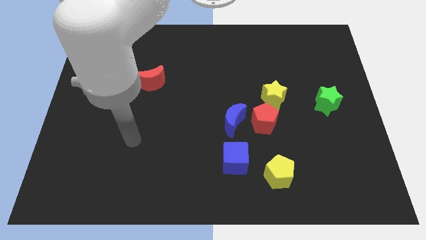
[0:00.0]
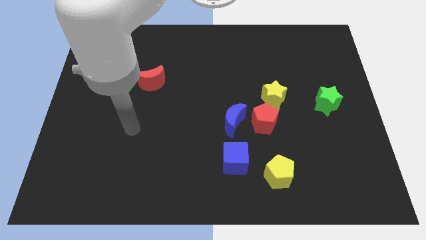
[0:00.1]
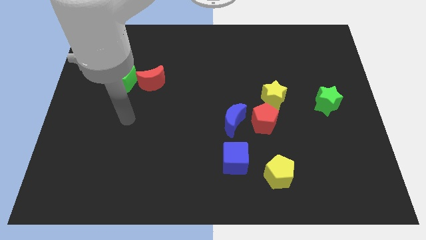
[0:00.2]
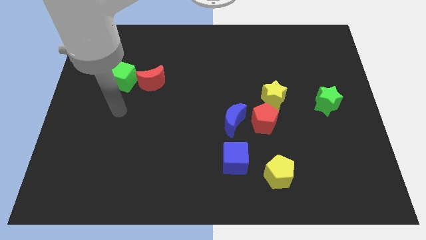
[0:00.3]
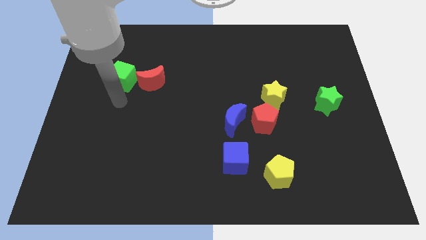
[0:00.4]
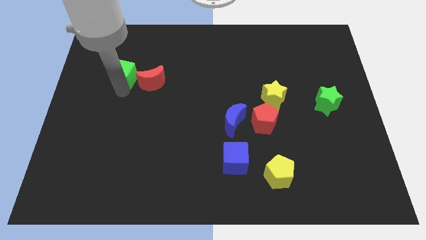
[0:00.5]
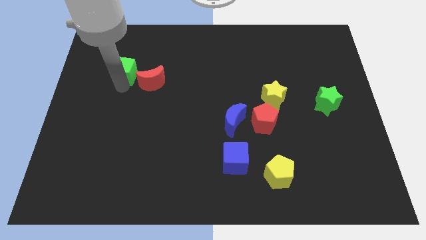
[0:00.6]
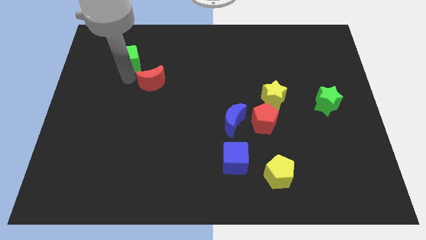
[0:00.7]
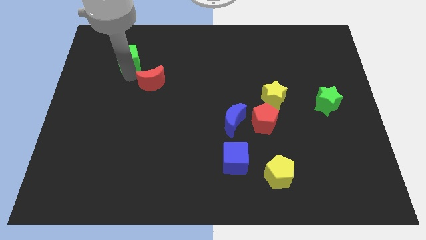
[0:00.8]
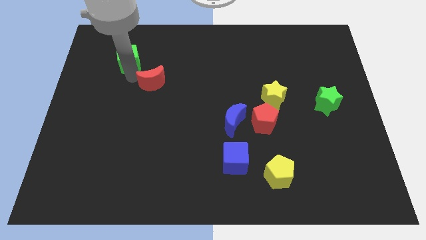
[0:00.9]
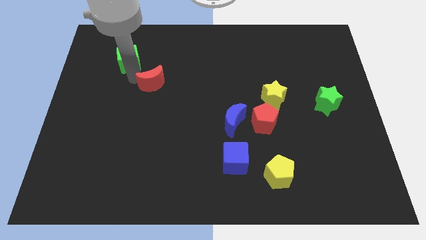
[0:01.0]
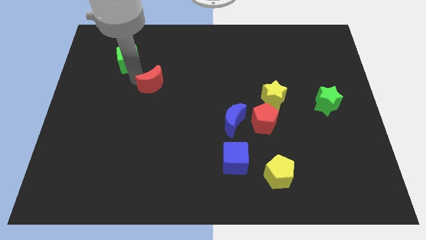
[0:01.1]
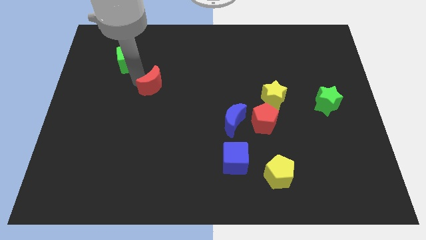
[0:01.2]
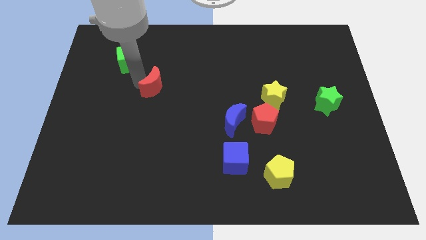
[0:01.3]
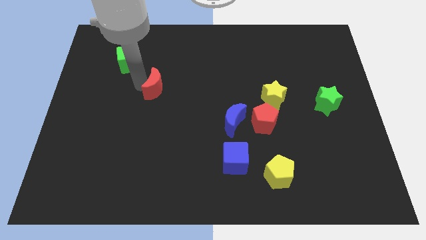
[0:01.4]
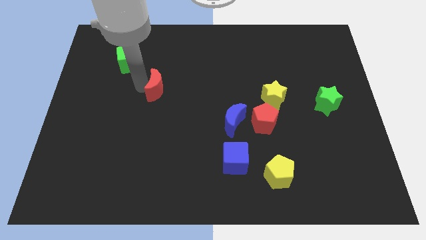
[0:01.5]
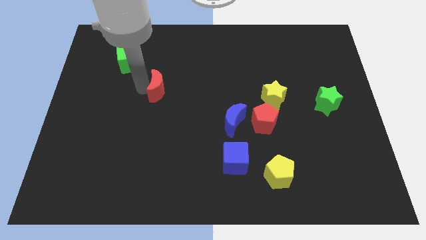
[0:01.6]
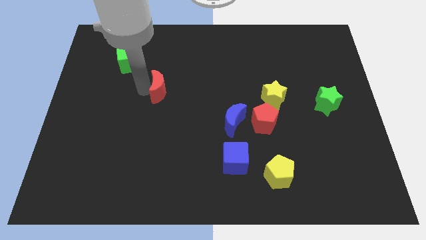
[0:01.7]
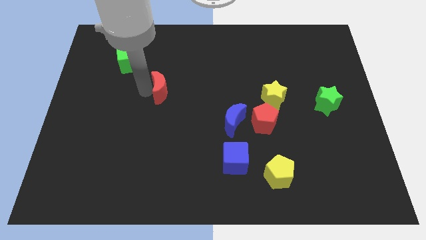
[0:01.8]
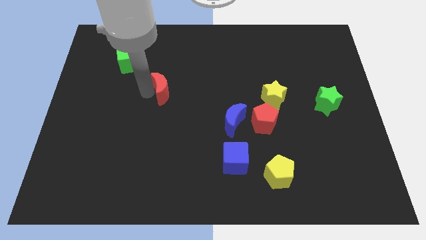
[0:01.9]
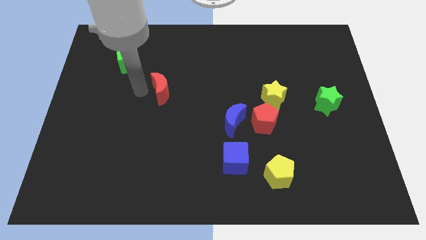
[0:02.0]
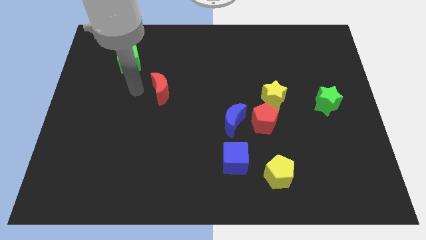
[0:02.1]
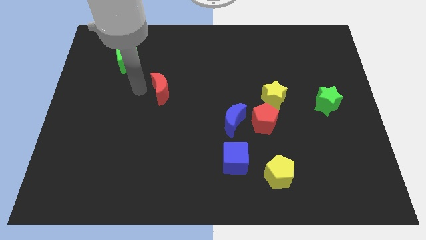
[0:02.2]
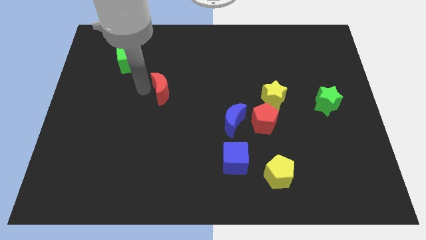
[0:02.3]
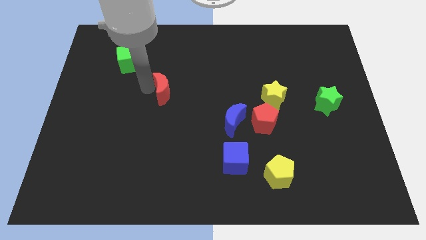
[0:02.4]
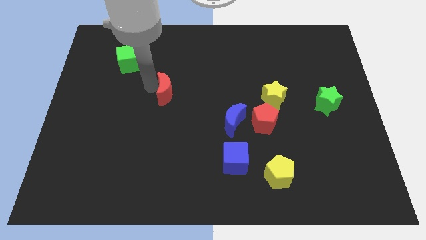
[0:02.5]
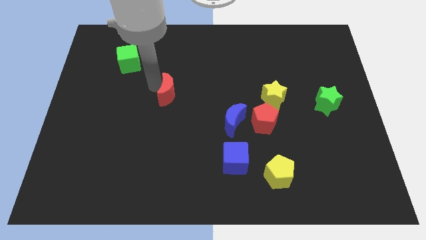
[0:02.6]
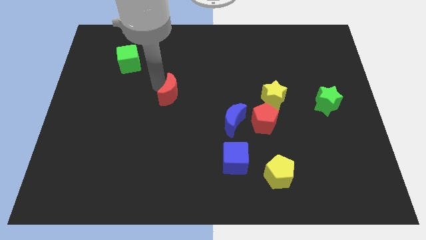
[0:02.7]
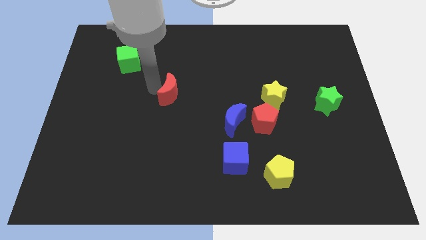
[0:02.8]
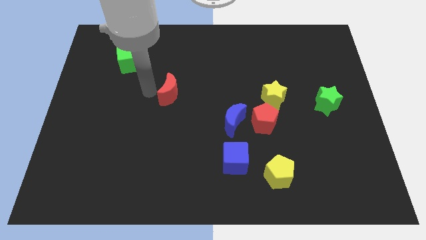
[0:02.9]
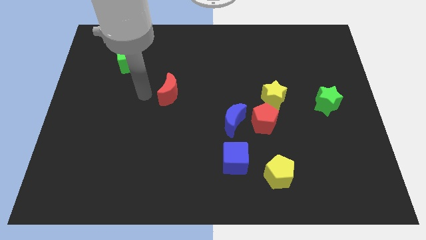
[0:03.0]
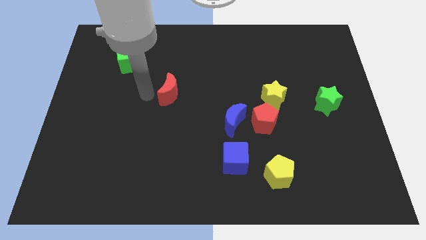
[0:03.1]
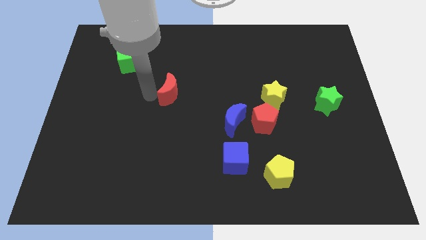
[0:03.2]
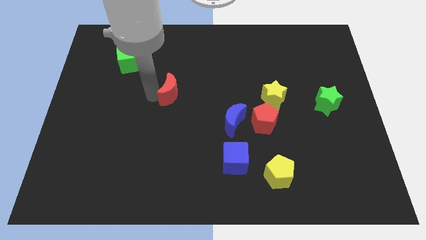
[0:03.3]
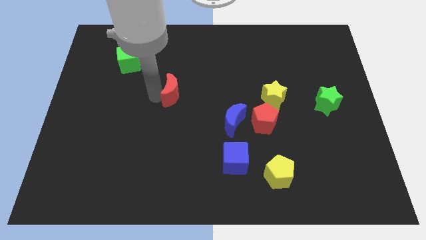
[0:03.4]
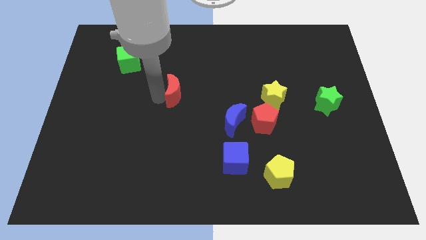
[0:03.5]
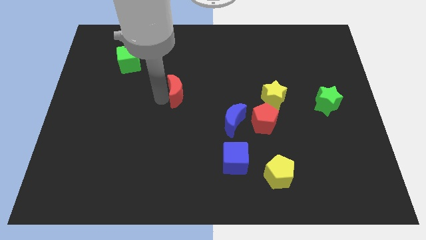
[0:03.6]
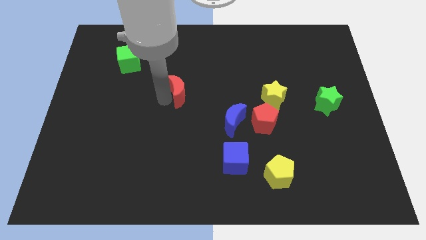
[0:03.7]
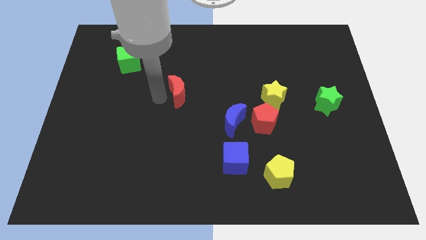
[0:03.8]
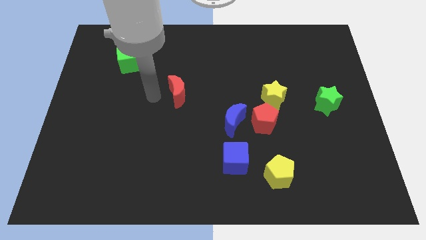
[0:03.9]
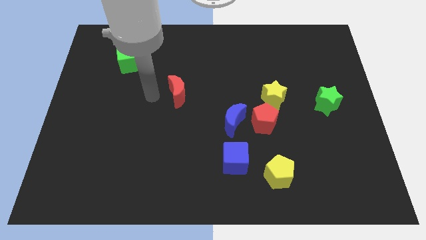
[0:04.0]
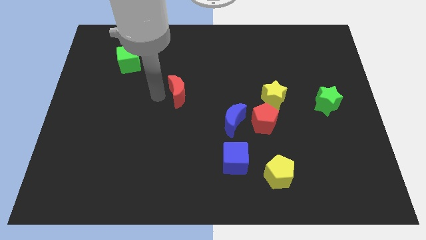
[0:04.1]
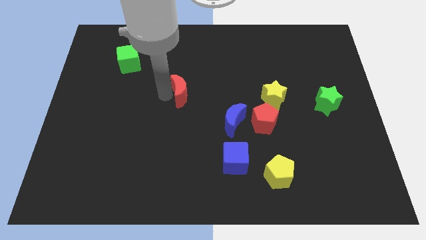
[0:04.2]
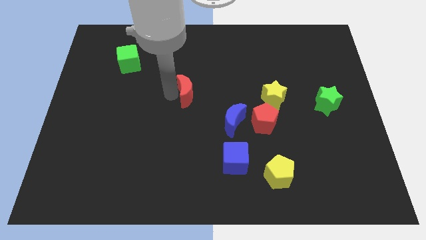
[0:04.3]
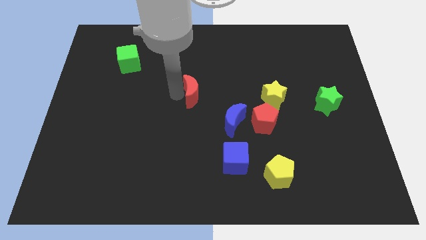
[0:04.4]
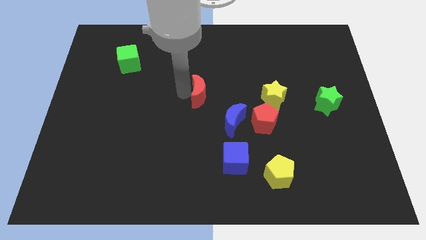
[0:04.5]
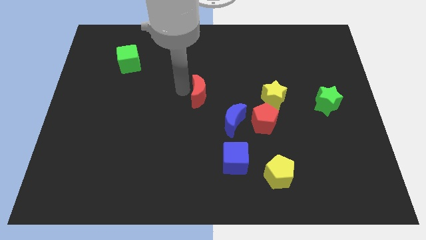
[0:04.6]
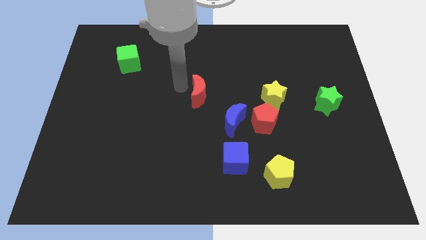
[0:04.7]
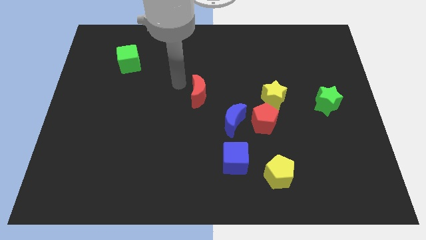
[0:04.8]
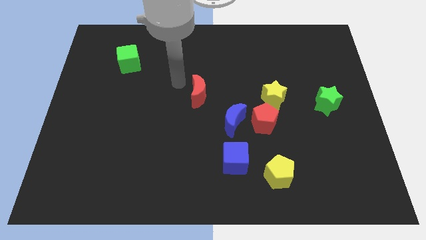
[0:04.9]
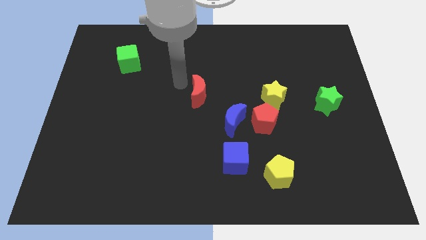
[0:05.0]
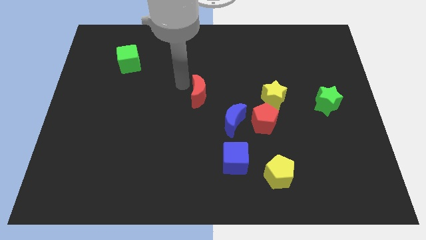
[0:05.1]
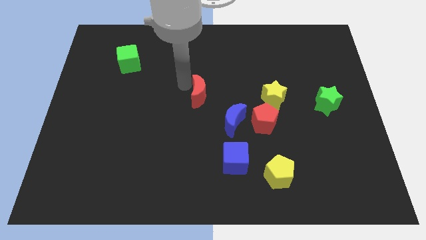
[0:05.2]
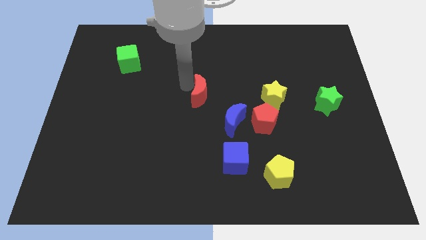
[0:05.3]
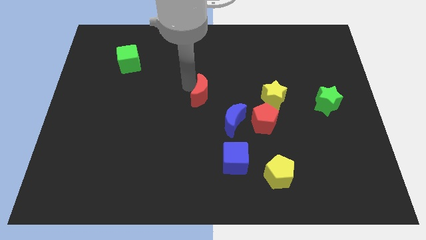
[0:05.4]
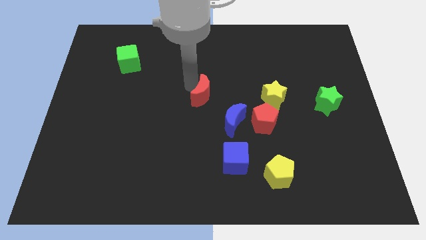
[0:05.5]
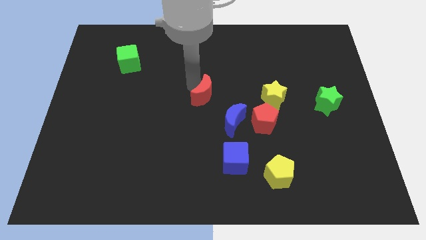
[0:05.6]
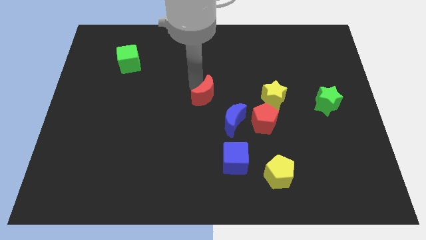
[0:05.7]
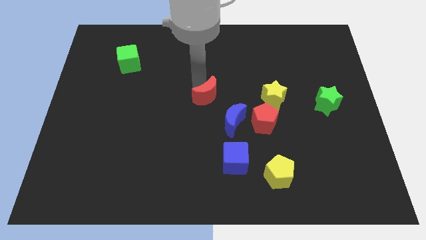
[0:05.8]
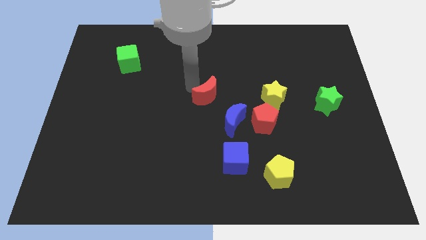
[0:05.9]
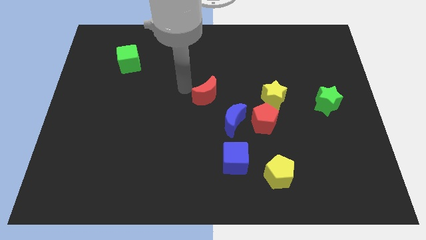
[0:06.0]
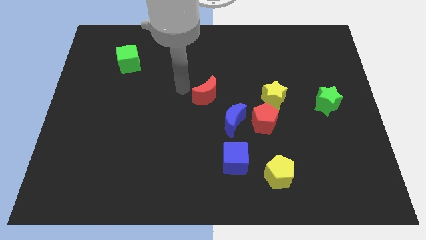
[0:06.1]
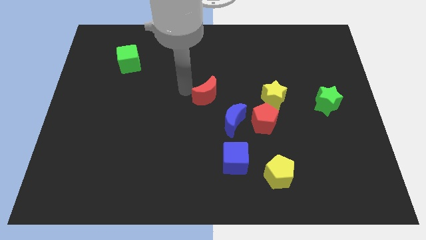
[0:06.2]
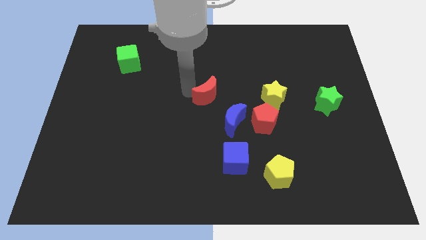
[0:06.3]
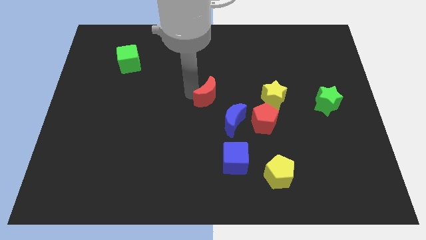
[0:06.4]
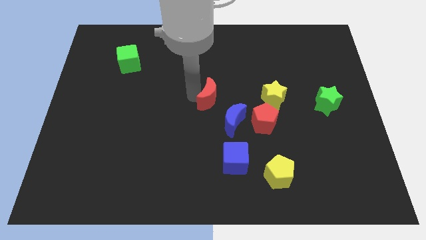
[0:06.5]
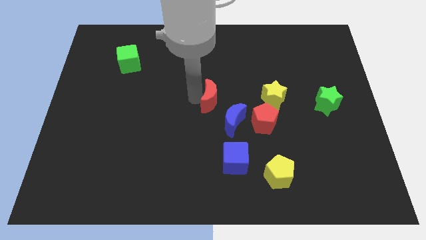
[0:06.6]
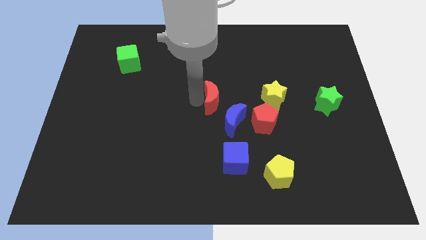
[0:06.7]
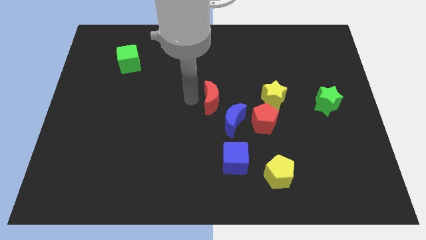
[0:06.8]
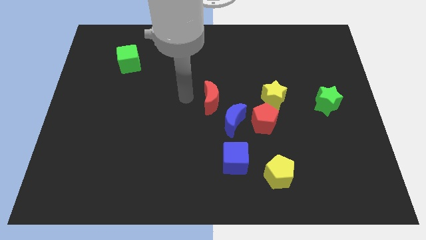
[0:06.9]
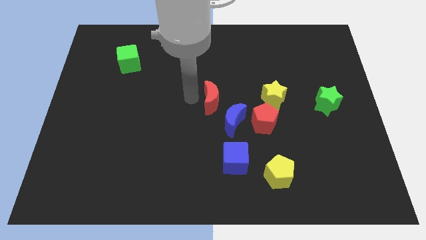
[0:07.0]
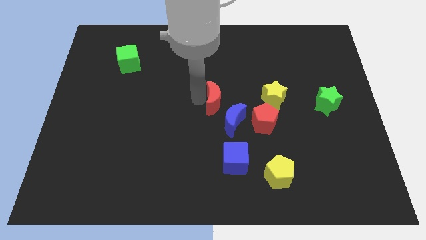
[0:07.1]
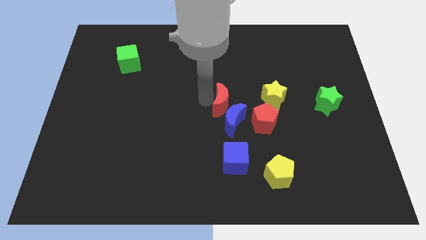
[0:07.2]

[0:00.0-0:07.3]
move the red moon diagonally up and to the left of the red pentagon

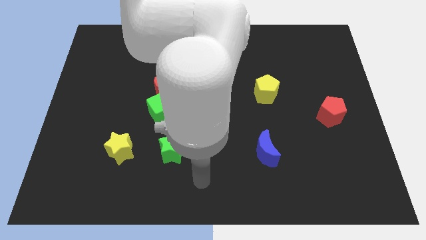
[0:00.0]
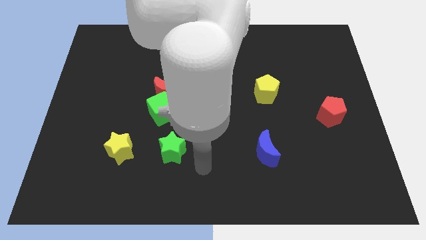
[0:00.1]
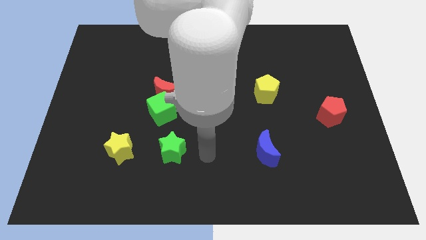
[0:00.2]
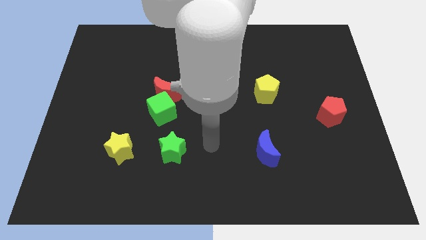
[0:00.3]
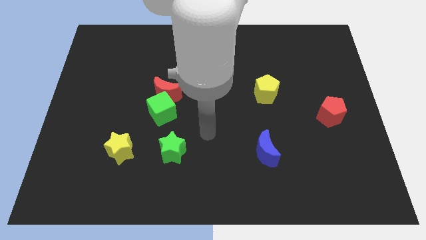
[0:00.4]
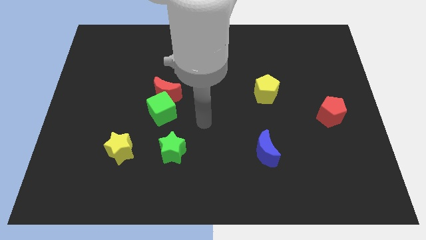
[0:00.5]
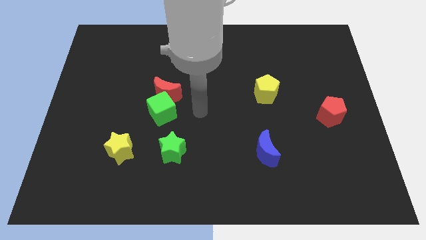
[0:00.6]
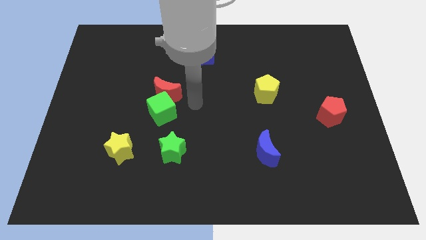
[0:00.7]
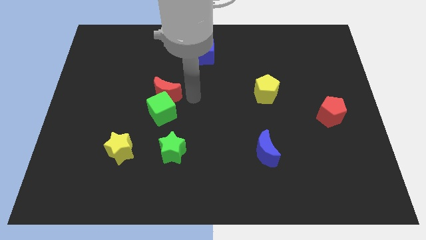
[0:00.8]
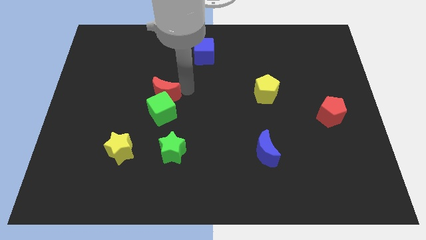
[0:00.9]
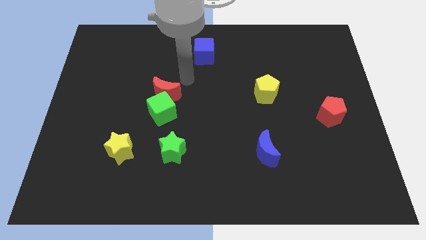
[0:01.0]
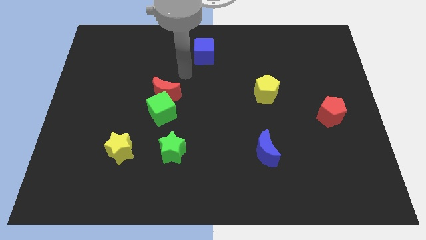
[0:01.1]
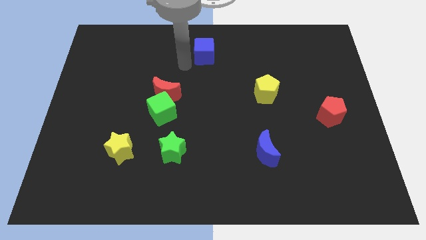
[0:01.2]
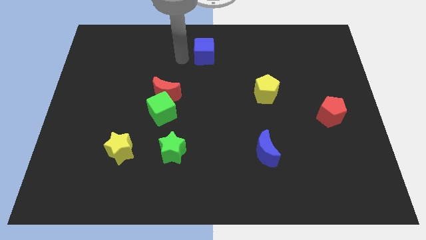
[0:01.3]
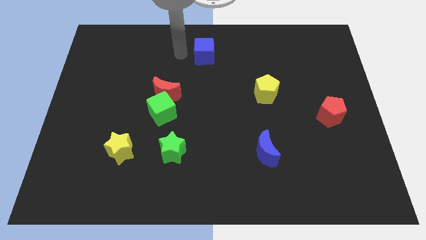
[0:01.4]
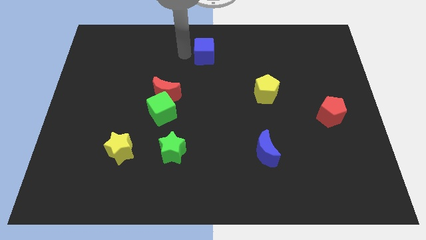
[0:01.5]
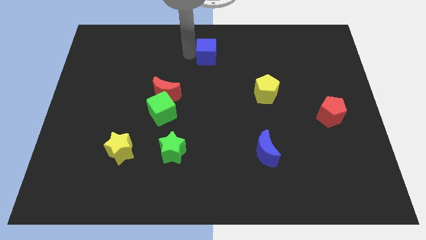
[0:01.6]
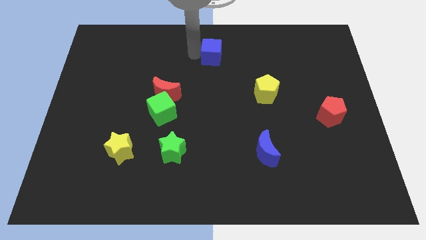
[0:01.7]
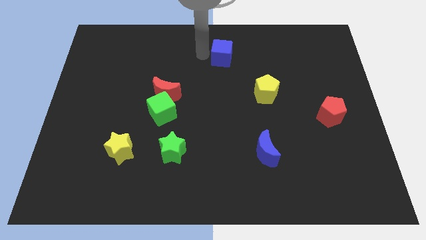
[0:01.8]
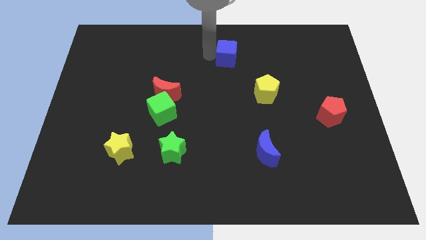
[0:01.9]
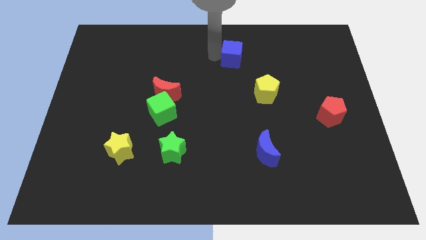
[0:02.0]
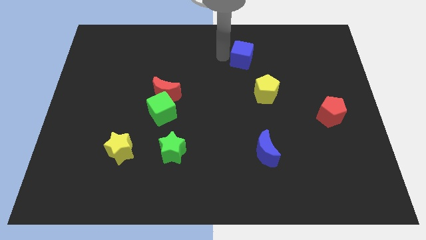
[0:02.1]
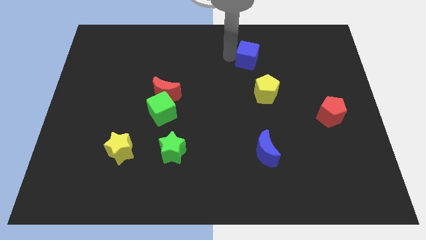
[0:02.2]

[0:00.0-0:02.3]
move the blue cube above the yellow pentagon
